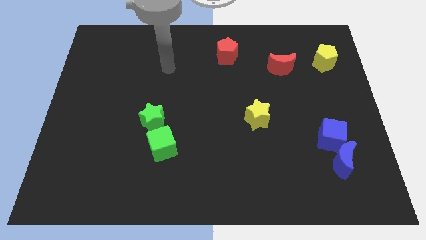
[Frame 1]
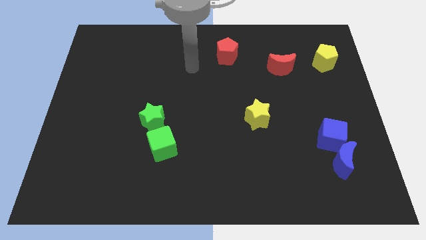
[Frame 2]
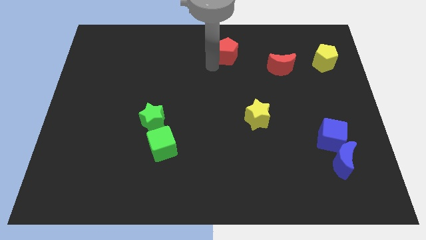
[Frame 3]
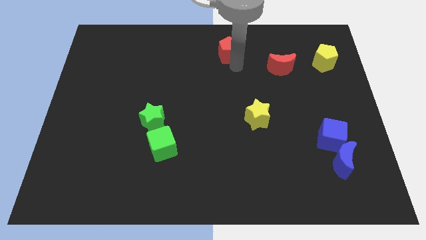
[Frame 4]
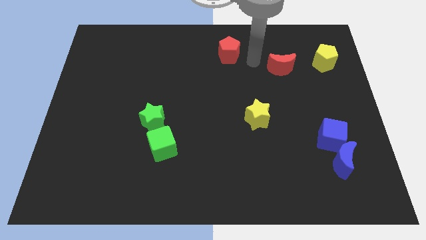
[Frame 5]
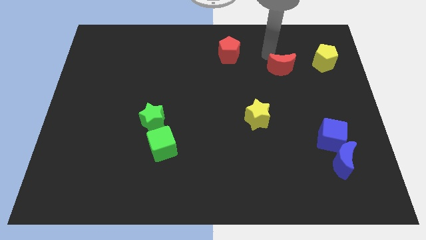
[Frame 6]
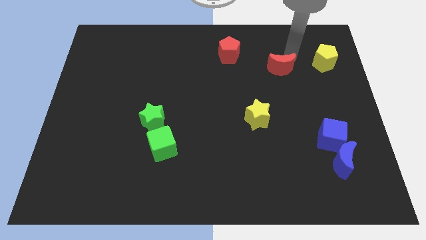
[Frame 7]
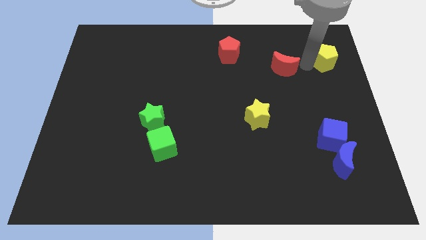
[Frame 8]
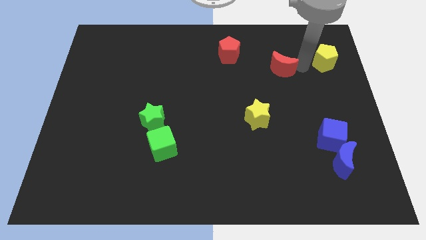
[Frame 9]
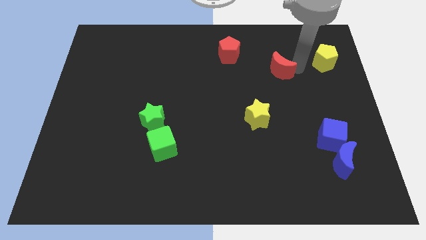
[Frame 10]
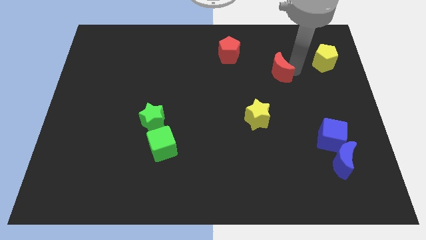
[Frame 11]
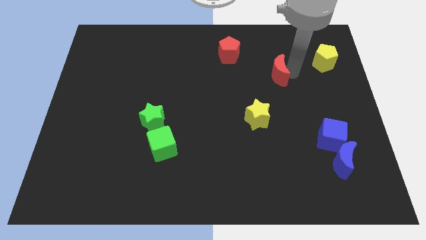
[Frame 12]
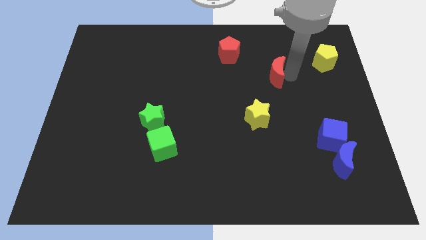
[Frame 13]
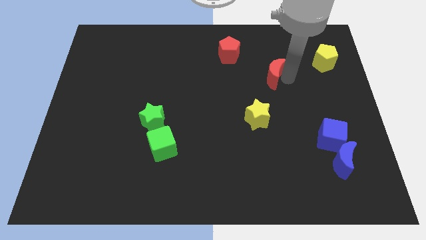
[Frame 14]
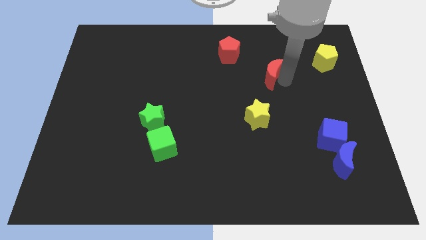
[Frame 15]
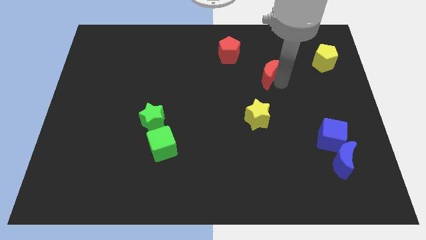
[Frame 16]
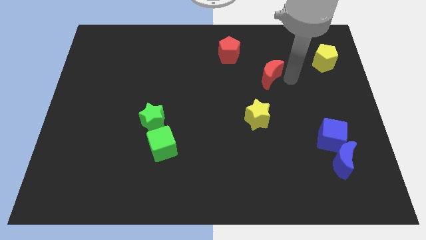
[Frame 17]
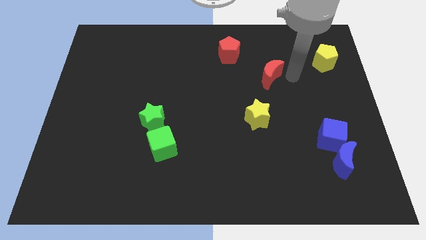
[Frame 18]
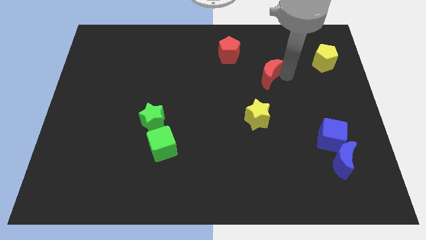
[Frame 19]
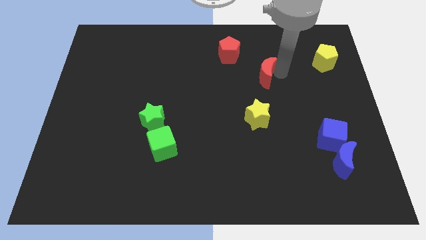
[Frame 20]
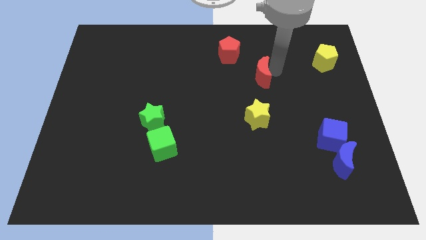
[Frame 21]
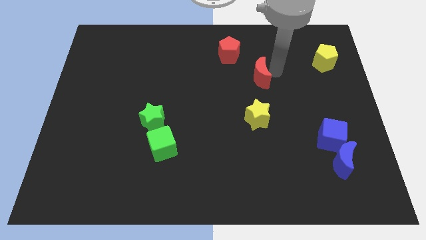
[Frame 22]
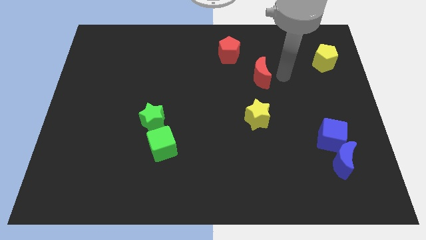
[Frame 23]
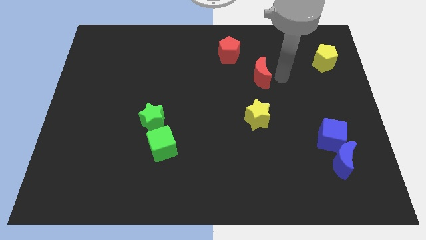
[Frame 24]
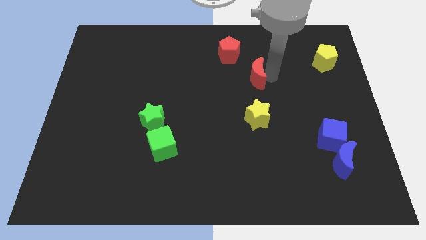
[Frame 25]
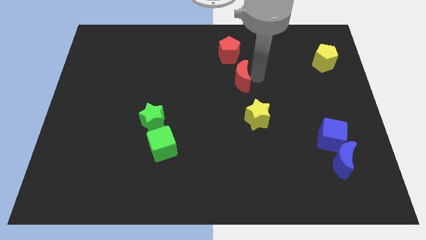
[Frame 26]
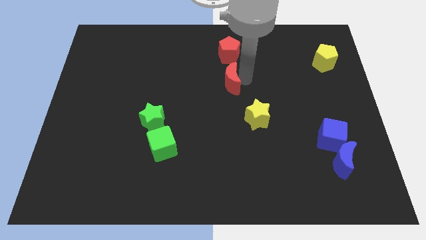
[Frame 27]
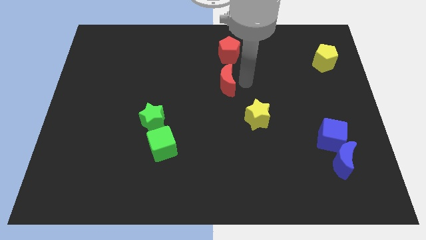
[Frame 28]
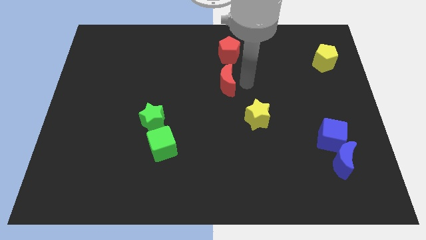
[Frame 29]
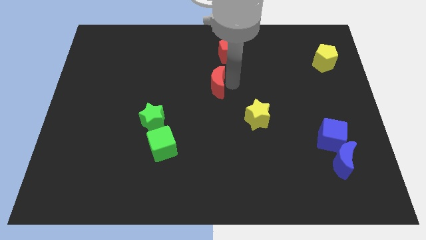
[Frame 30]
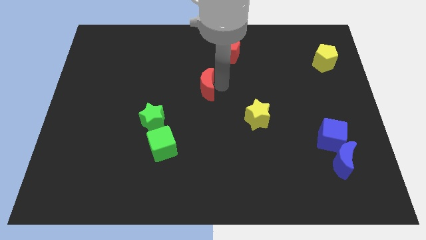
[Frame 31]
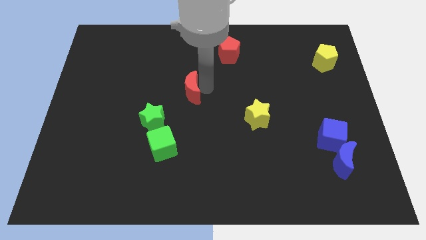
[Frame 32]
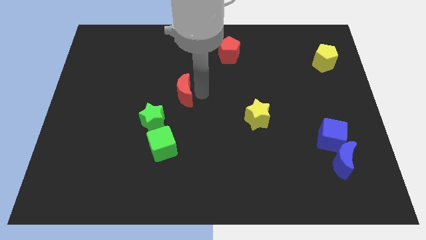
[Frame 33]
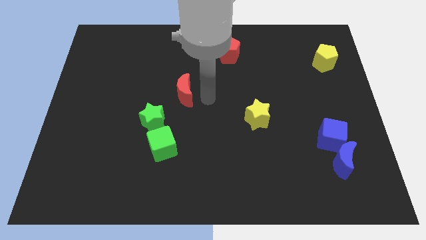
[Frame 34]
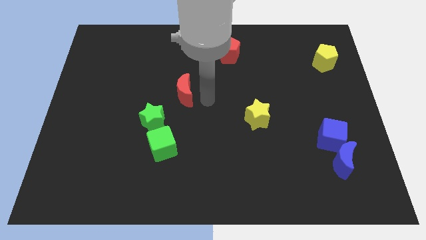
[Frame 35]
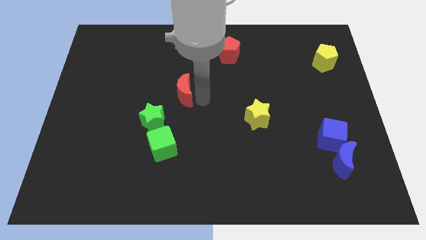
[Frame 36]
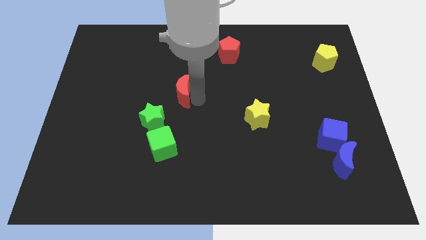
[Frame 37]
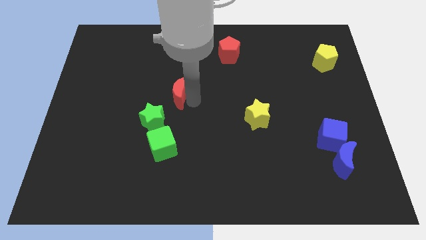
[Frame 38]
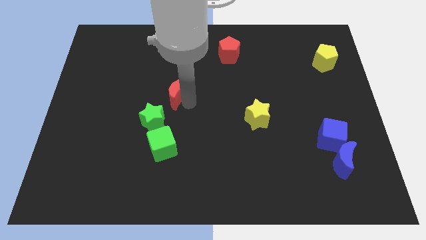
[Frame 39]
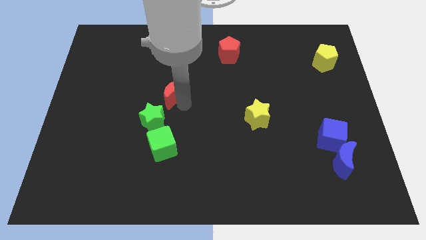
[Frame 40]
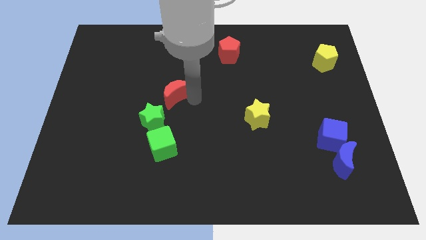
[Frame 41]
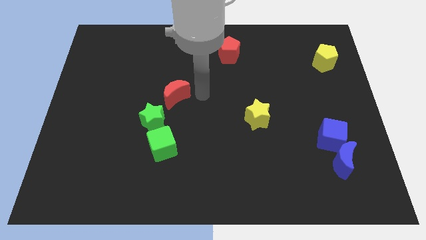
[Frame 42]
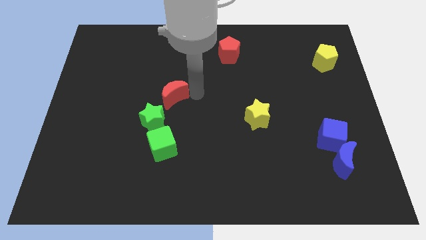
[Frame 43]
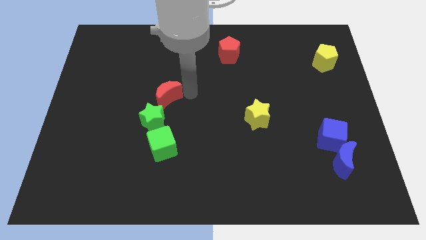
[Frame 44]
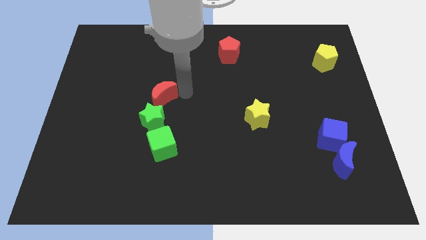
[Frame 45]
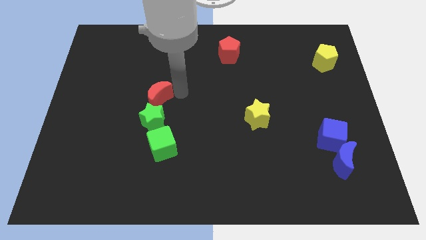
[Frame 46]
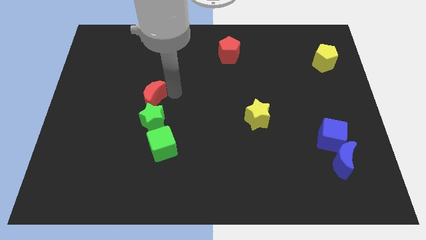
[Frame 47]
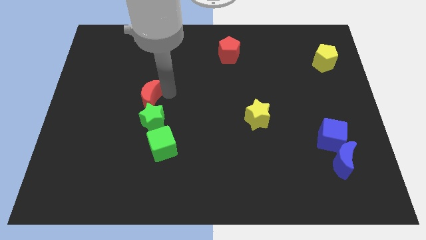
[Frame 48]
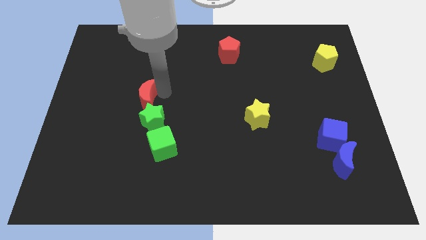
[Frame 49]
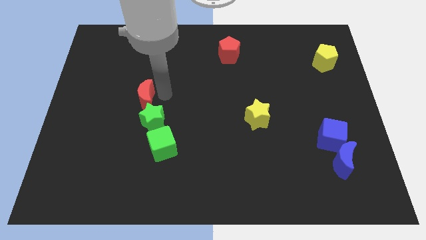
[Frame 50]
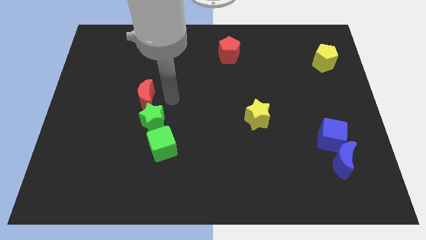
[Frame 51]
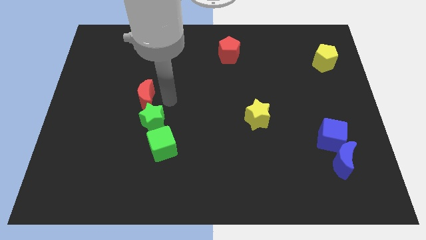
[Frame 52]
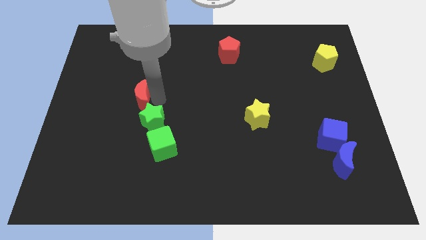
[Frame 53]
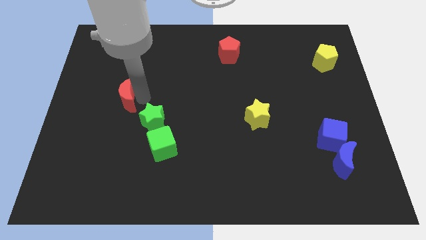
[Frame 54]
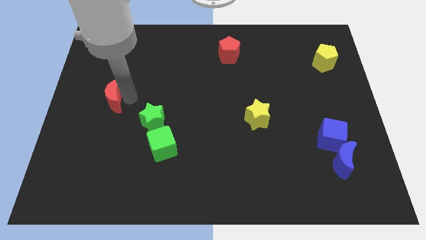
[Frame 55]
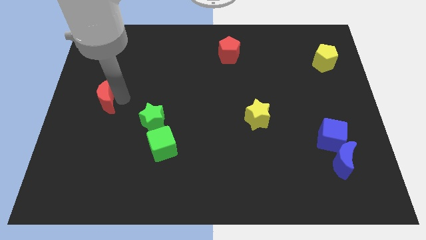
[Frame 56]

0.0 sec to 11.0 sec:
slide the red moon to the left side

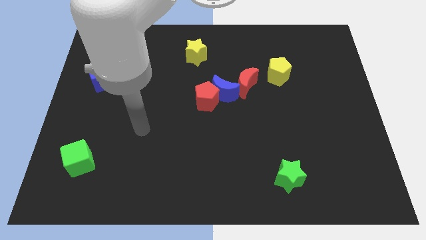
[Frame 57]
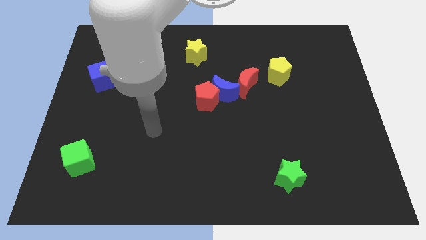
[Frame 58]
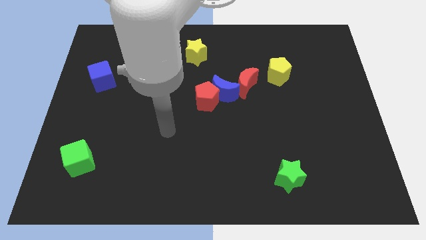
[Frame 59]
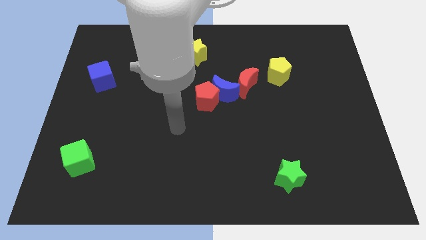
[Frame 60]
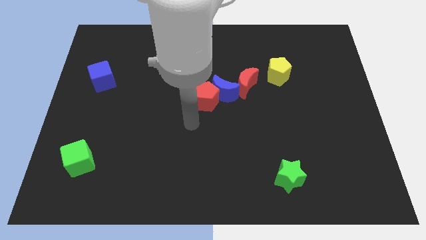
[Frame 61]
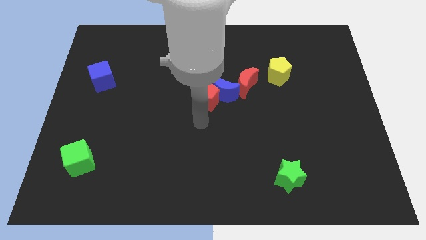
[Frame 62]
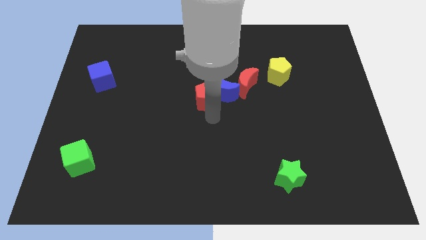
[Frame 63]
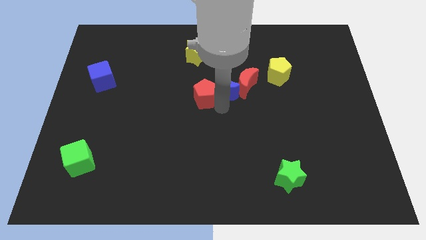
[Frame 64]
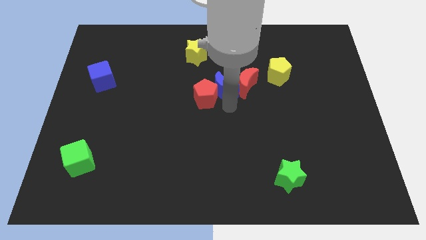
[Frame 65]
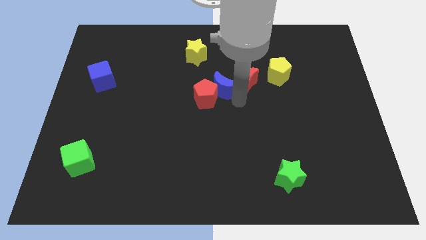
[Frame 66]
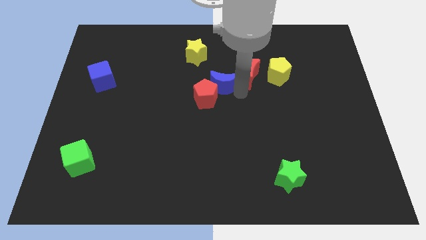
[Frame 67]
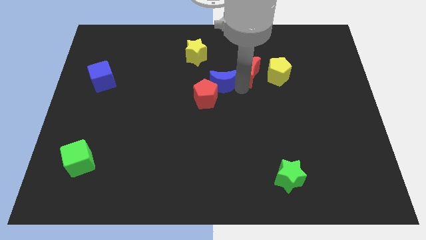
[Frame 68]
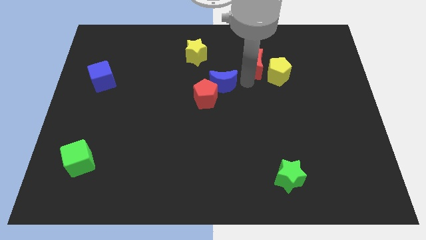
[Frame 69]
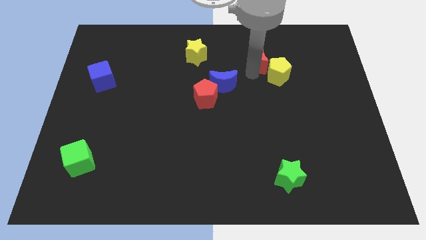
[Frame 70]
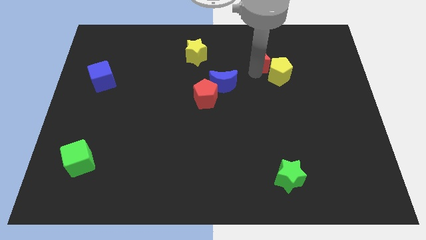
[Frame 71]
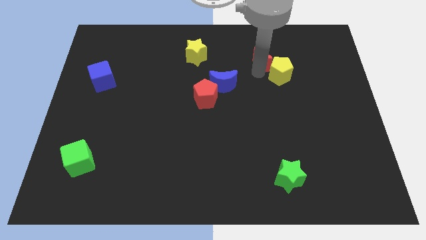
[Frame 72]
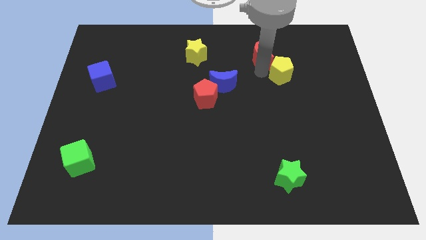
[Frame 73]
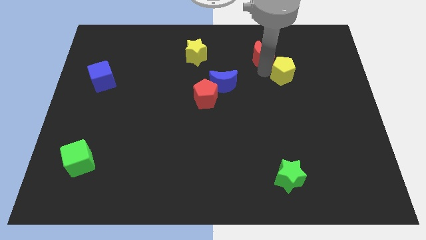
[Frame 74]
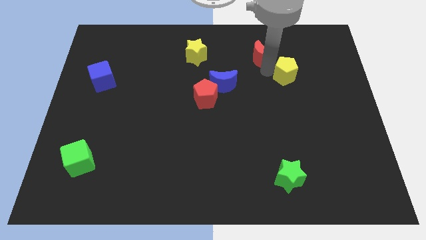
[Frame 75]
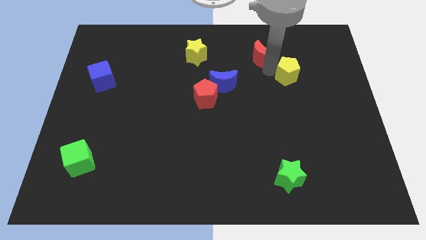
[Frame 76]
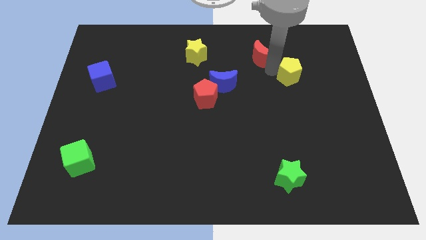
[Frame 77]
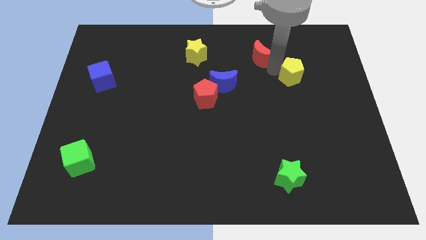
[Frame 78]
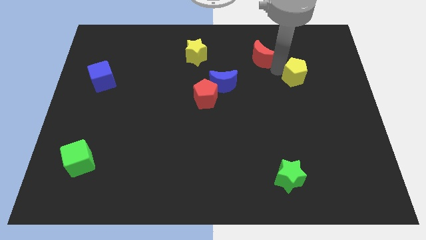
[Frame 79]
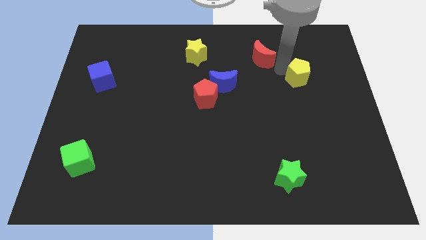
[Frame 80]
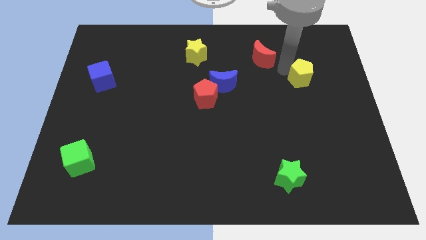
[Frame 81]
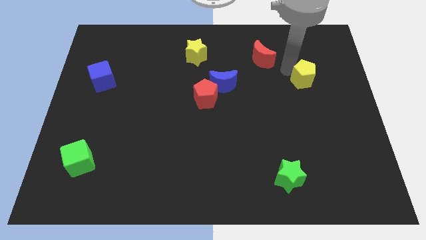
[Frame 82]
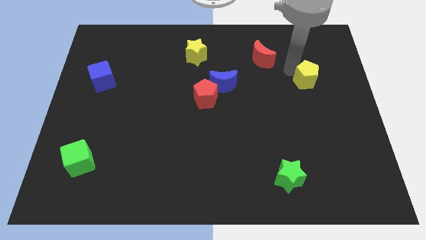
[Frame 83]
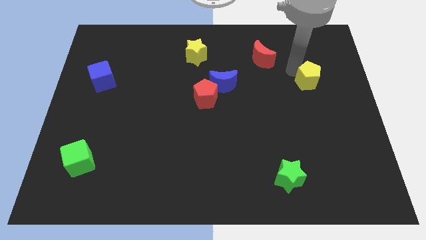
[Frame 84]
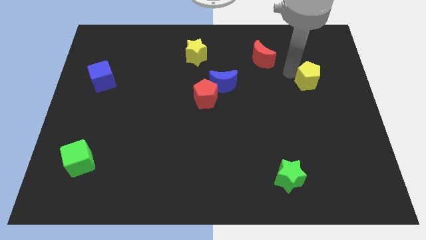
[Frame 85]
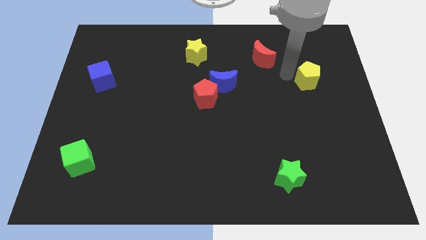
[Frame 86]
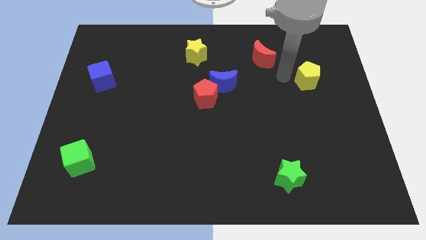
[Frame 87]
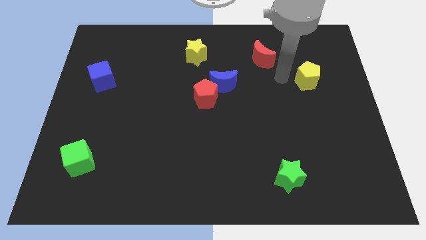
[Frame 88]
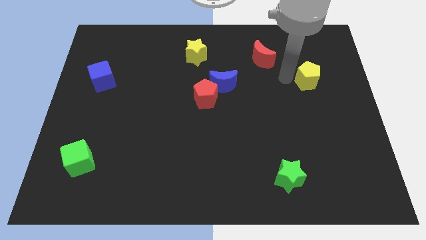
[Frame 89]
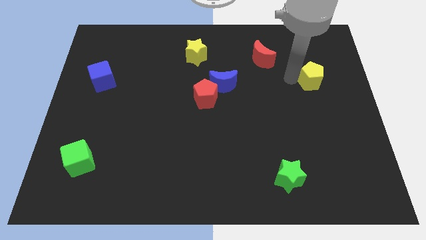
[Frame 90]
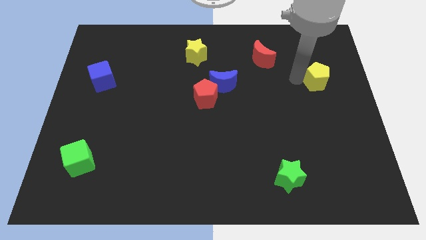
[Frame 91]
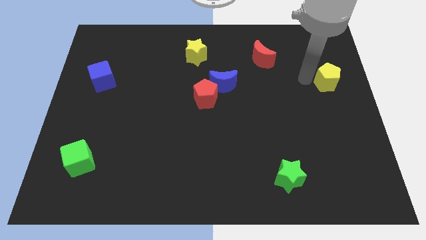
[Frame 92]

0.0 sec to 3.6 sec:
push the yellow pentagon to the right side
